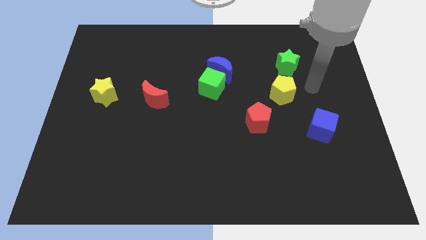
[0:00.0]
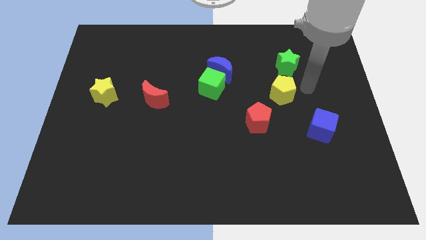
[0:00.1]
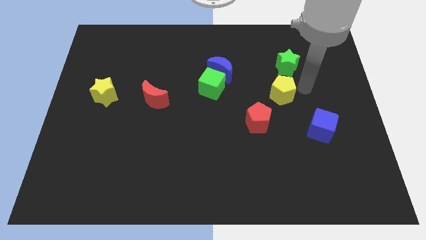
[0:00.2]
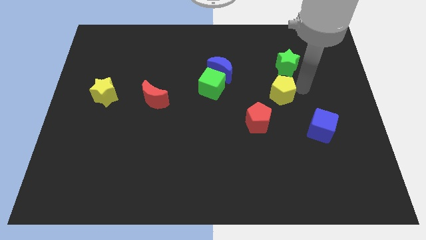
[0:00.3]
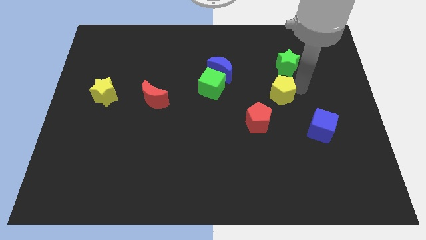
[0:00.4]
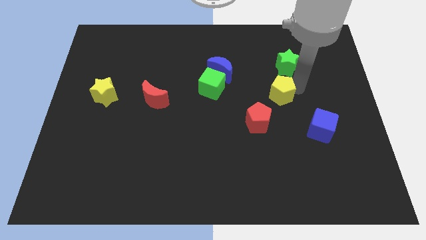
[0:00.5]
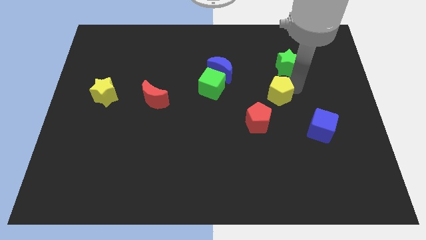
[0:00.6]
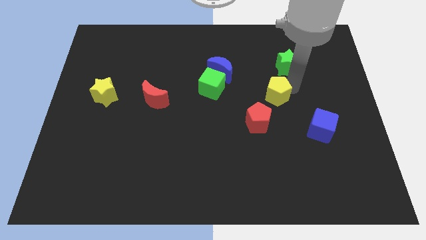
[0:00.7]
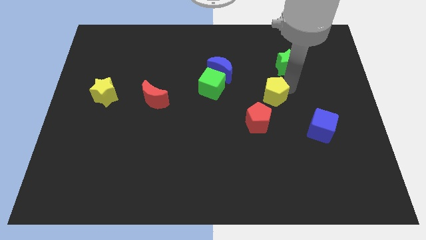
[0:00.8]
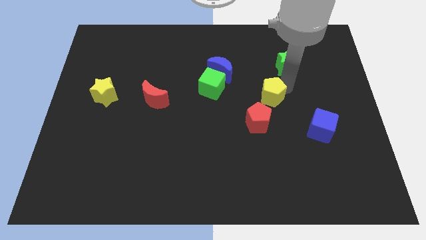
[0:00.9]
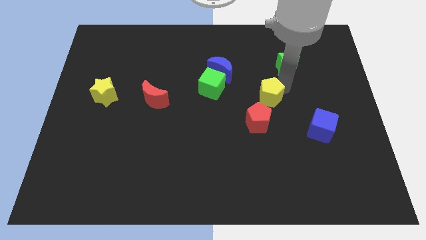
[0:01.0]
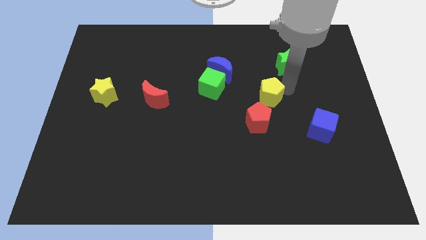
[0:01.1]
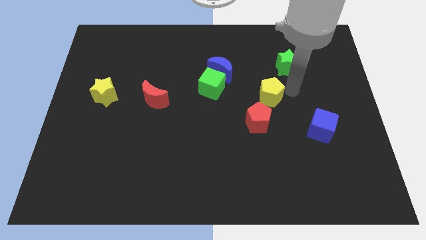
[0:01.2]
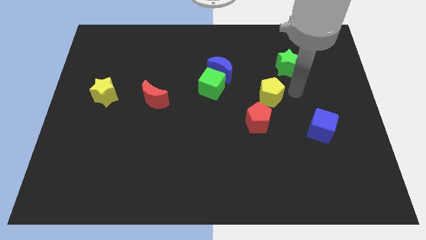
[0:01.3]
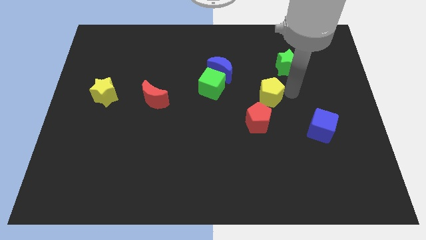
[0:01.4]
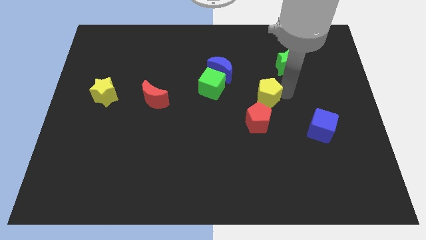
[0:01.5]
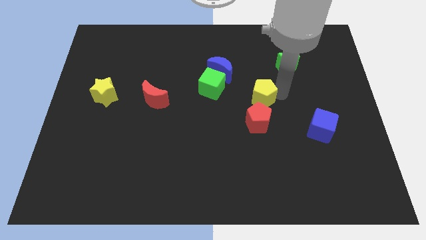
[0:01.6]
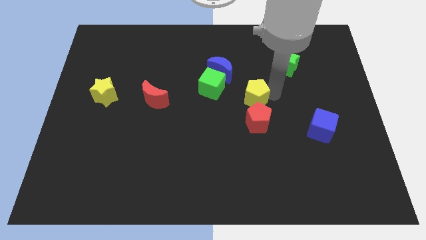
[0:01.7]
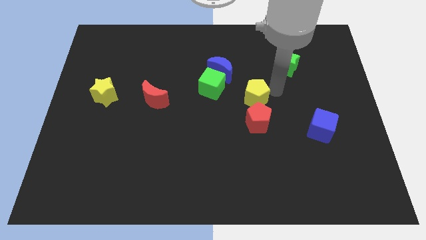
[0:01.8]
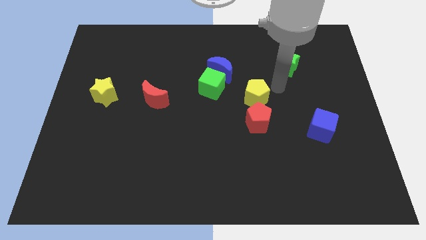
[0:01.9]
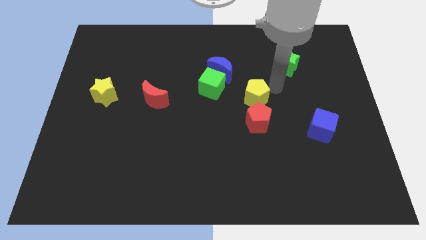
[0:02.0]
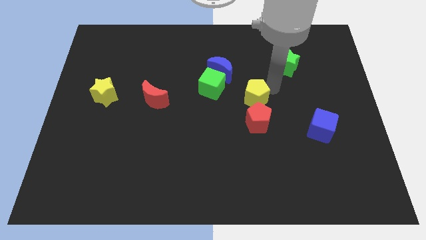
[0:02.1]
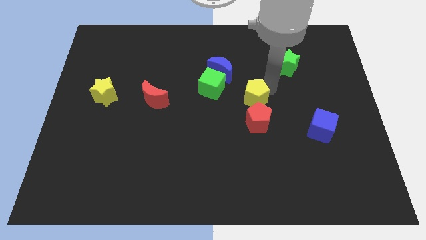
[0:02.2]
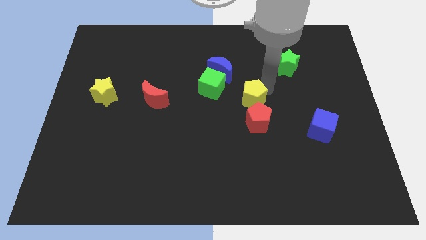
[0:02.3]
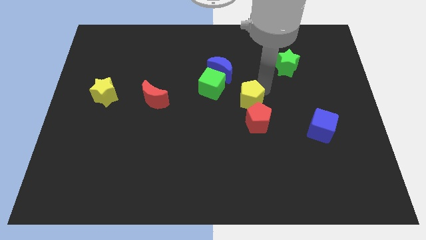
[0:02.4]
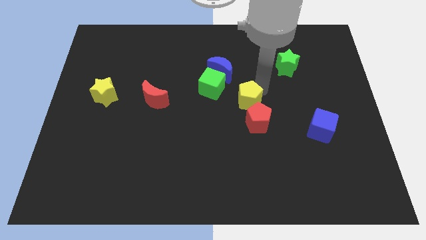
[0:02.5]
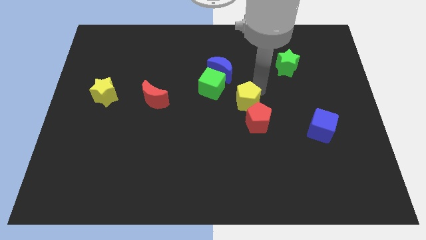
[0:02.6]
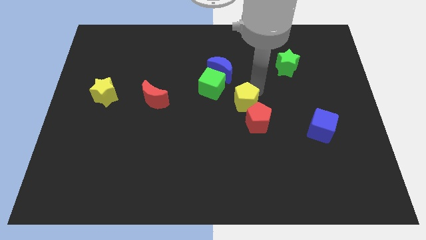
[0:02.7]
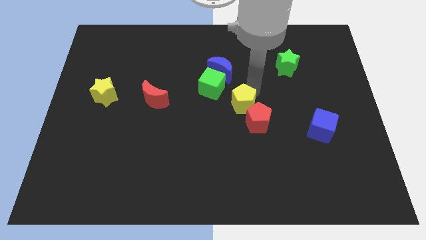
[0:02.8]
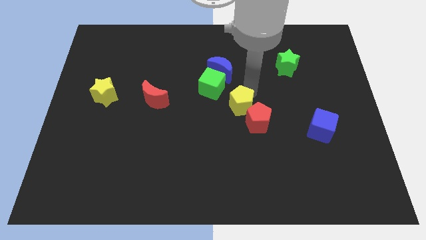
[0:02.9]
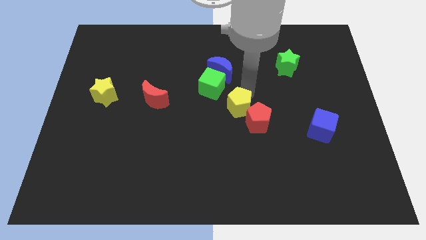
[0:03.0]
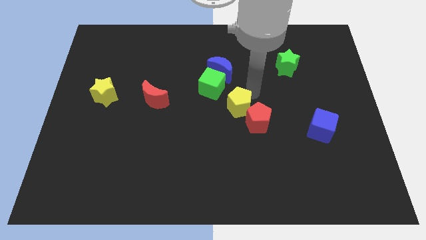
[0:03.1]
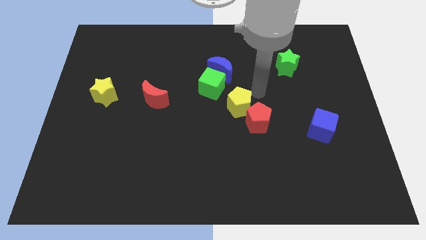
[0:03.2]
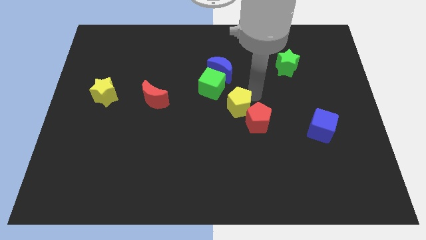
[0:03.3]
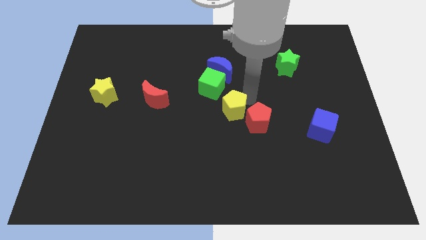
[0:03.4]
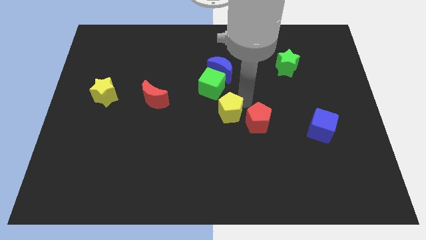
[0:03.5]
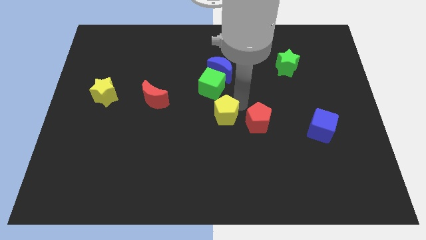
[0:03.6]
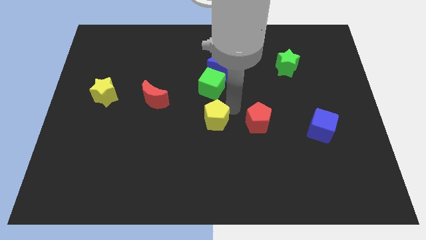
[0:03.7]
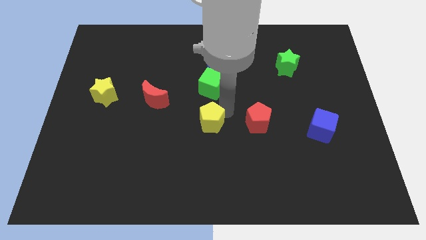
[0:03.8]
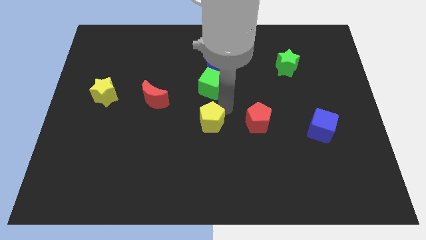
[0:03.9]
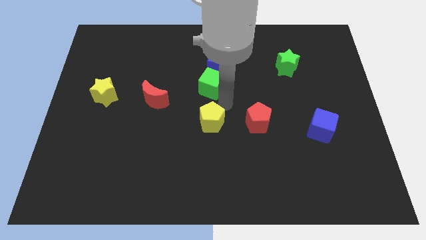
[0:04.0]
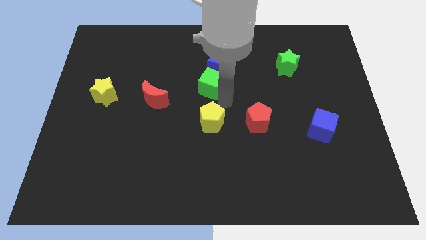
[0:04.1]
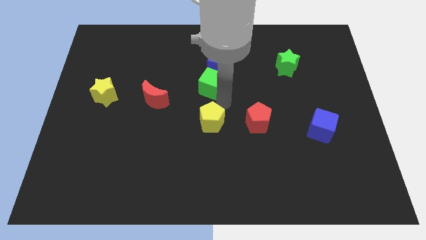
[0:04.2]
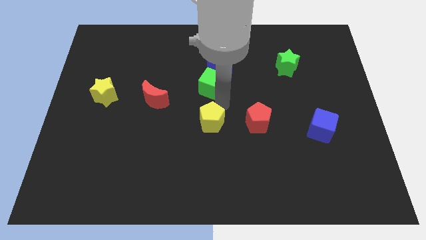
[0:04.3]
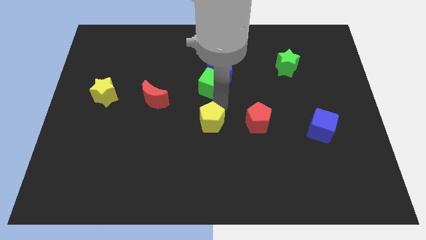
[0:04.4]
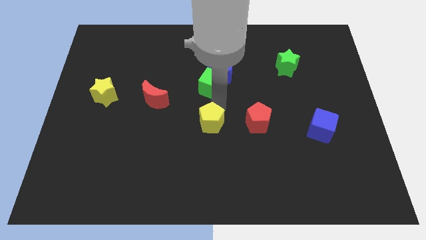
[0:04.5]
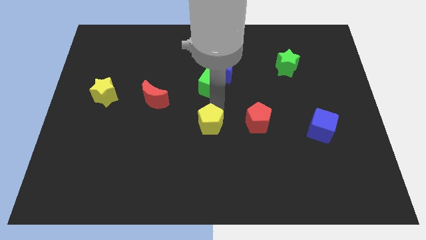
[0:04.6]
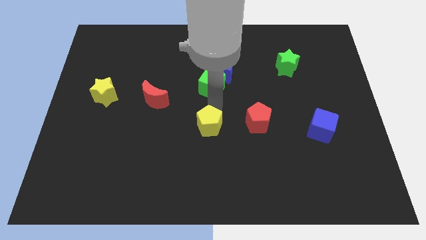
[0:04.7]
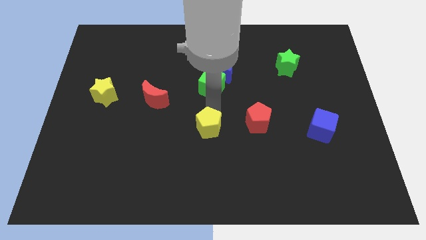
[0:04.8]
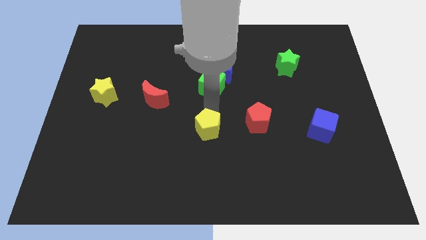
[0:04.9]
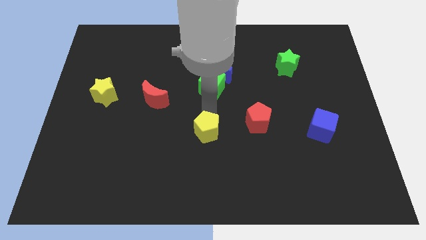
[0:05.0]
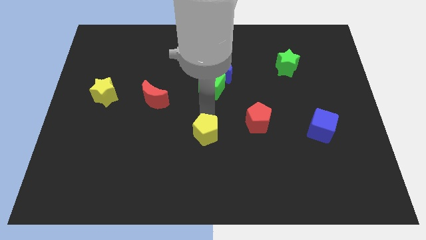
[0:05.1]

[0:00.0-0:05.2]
push the yellow pentagon down and to the left diagonally

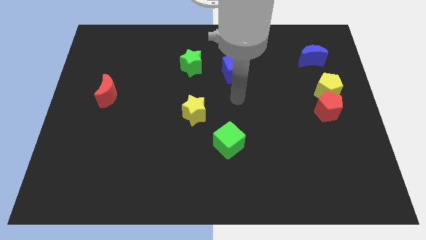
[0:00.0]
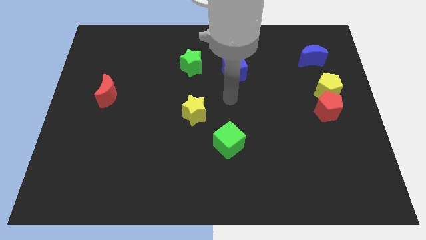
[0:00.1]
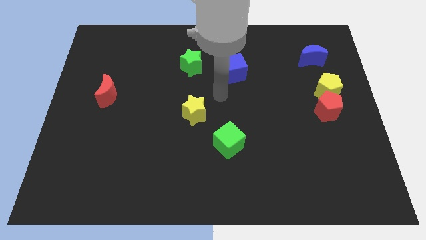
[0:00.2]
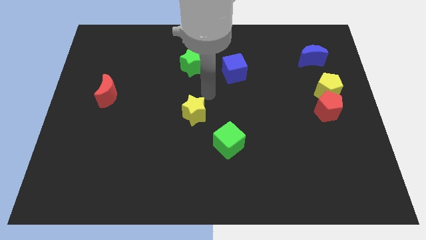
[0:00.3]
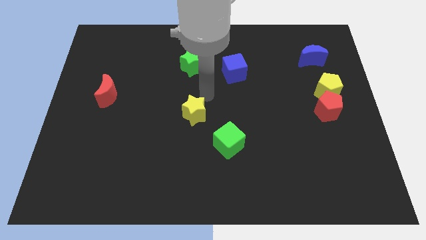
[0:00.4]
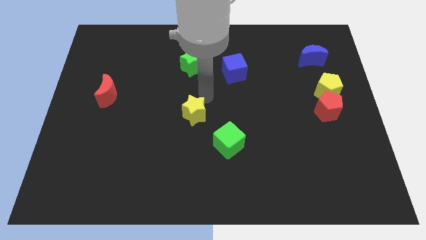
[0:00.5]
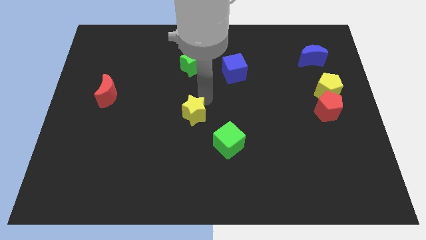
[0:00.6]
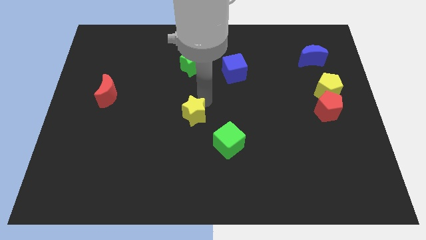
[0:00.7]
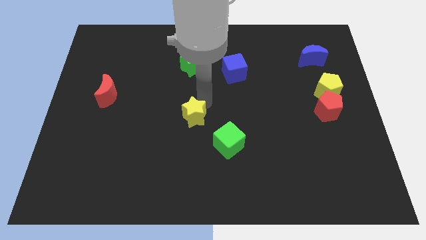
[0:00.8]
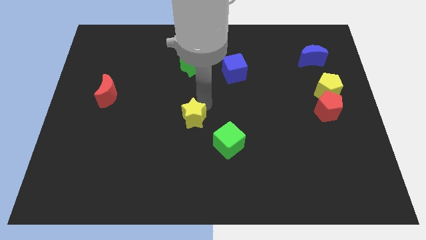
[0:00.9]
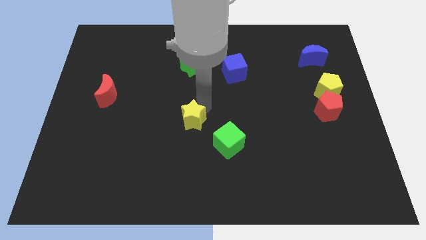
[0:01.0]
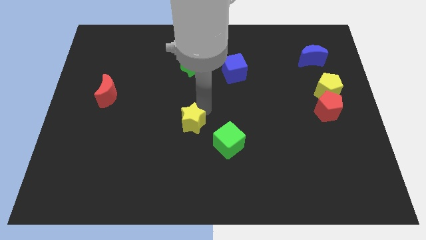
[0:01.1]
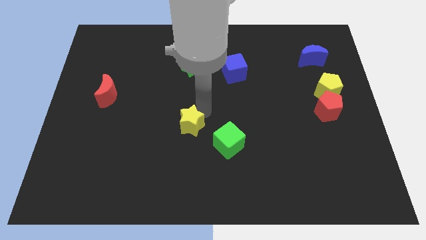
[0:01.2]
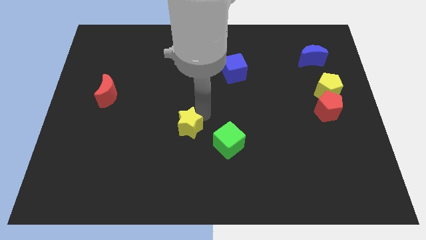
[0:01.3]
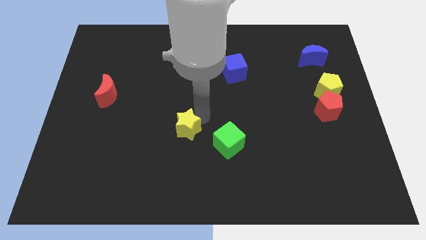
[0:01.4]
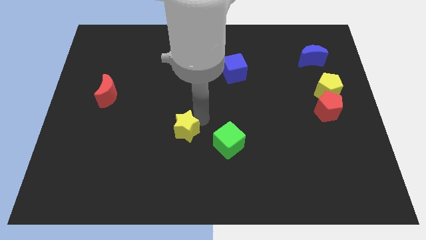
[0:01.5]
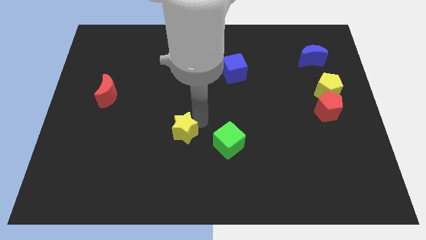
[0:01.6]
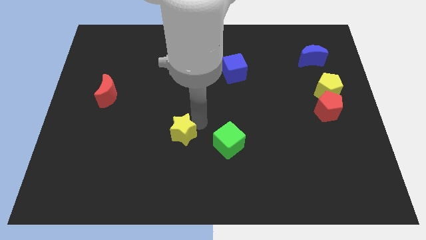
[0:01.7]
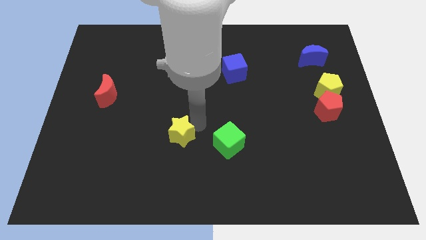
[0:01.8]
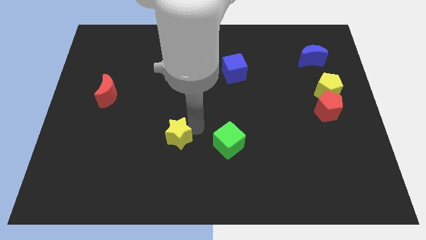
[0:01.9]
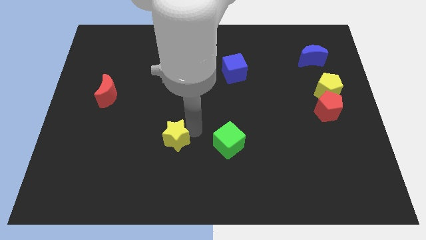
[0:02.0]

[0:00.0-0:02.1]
slightly slide the yellow star diagonally downwards and to the left

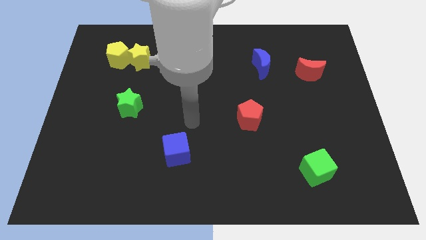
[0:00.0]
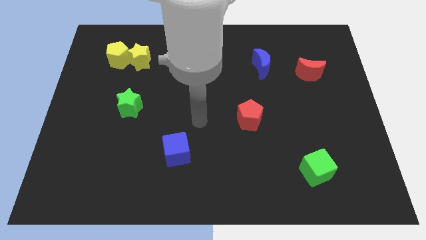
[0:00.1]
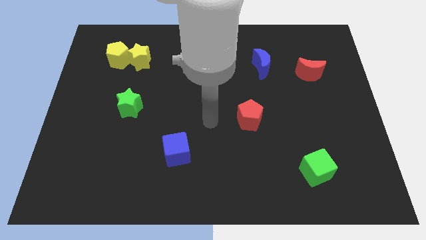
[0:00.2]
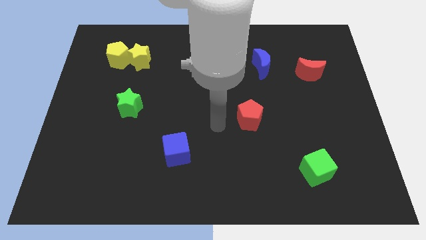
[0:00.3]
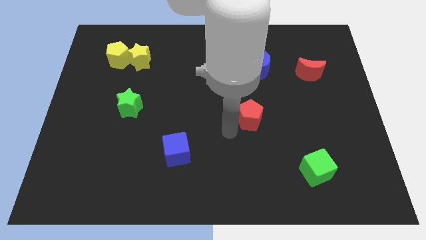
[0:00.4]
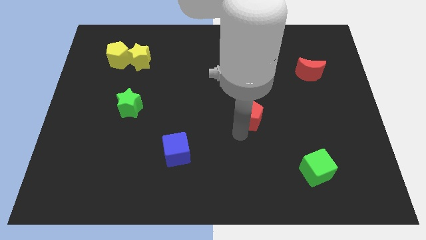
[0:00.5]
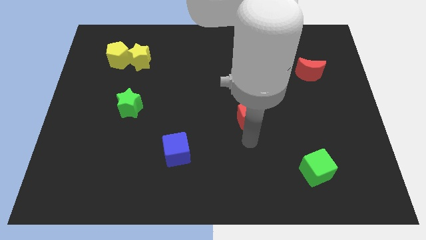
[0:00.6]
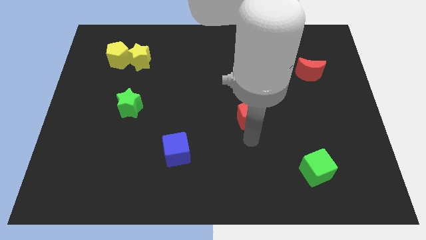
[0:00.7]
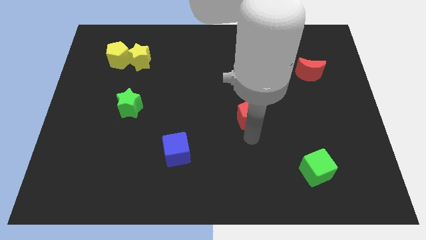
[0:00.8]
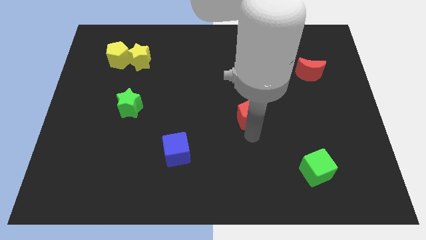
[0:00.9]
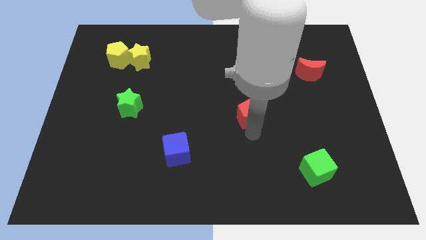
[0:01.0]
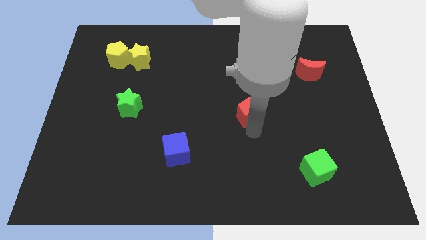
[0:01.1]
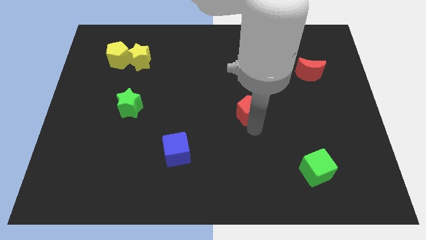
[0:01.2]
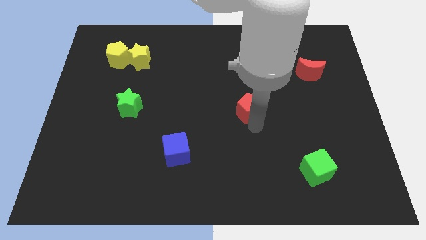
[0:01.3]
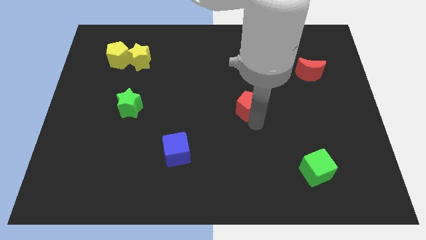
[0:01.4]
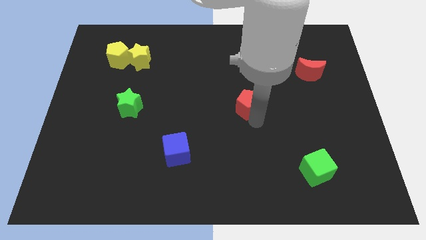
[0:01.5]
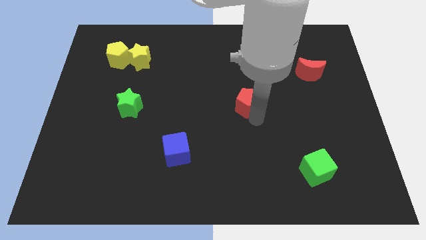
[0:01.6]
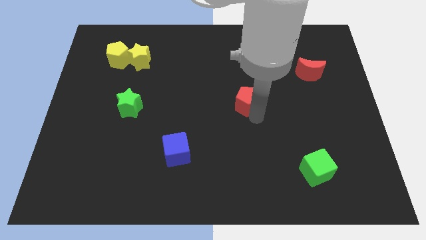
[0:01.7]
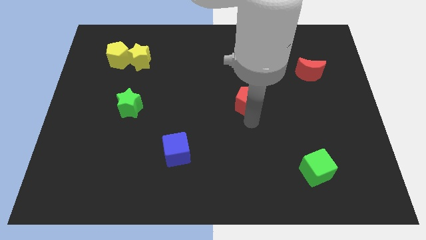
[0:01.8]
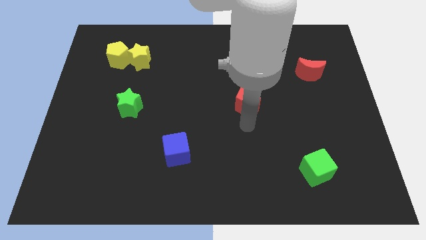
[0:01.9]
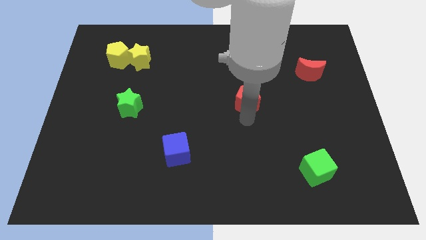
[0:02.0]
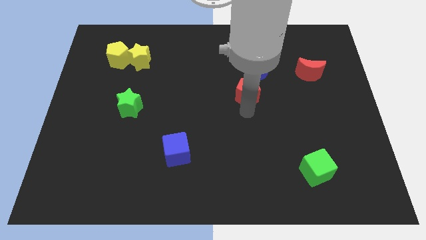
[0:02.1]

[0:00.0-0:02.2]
slightly move the red pentagon upwards
